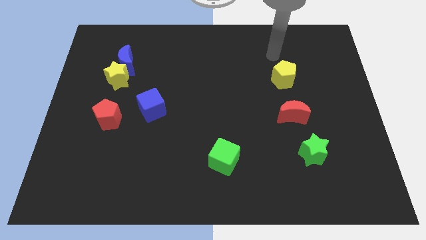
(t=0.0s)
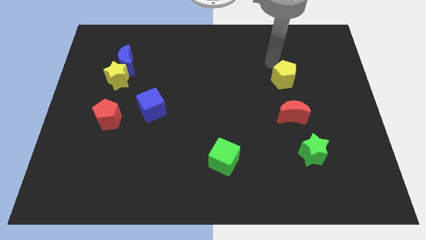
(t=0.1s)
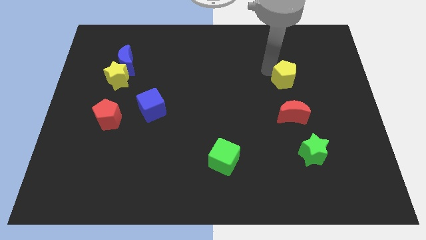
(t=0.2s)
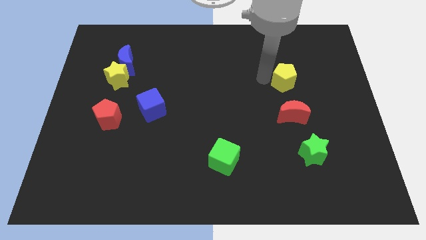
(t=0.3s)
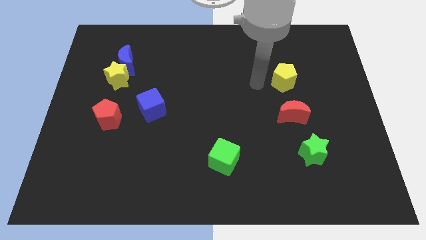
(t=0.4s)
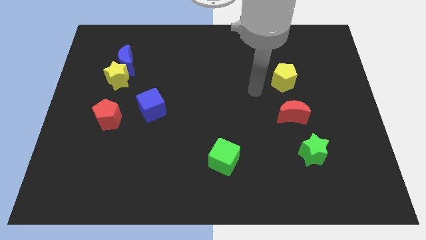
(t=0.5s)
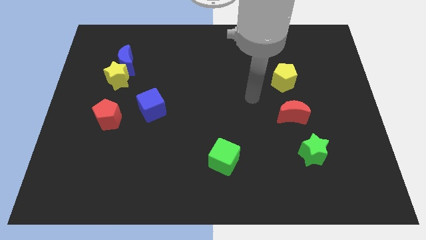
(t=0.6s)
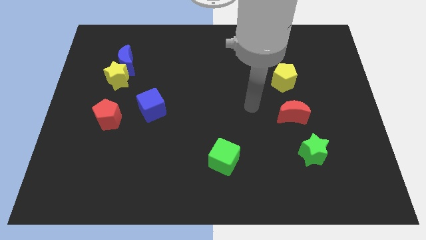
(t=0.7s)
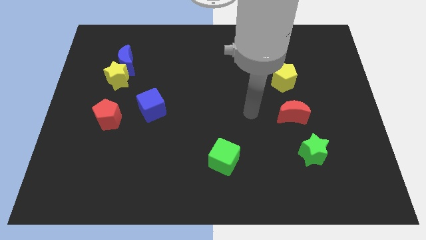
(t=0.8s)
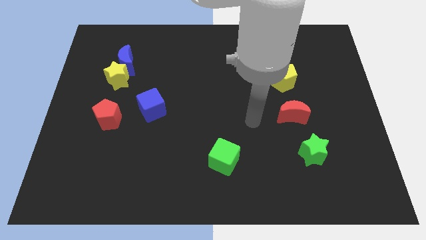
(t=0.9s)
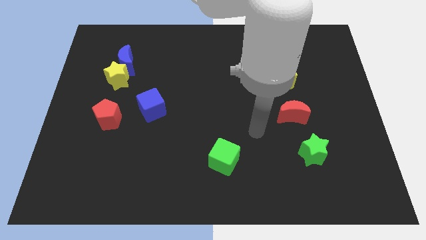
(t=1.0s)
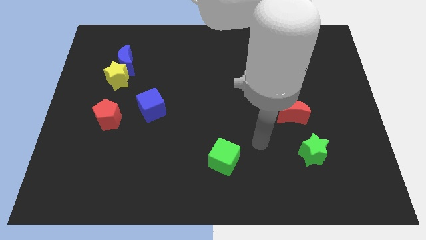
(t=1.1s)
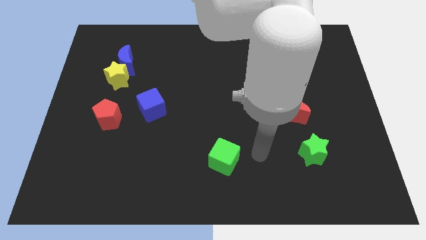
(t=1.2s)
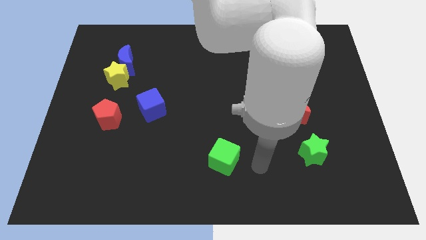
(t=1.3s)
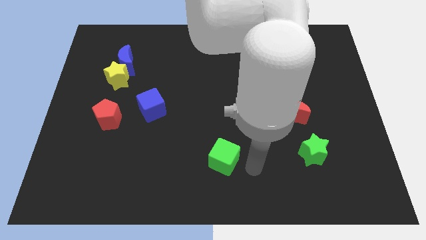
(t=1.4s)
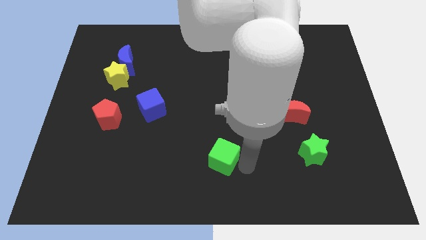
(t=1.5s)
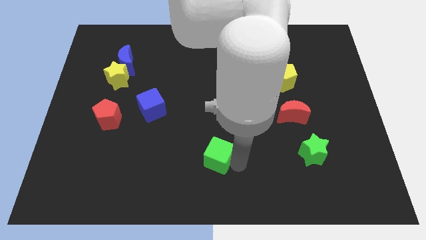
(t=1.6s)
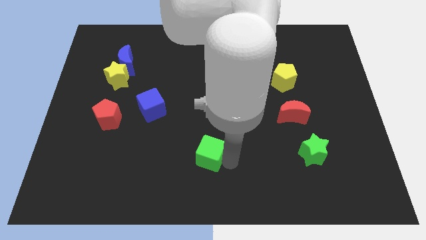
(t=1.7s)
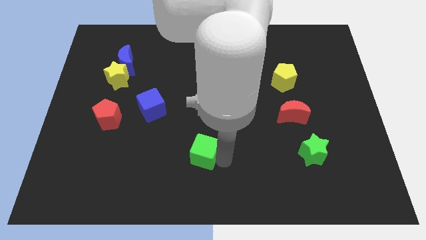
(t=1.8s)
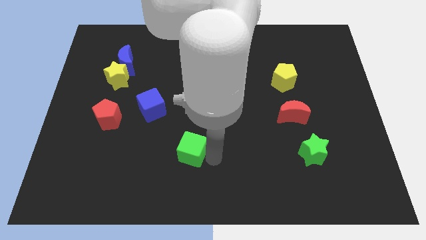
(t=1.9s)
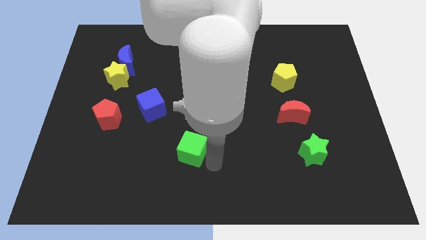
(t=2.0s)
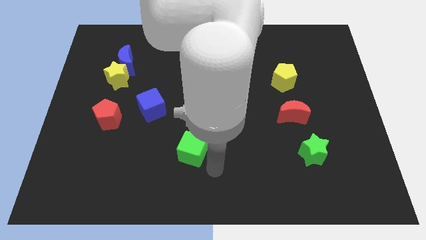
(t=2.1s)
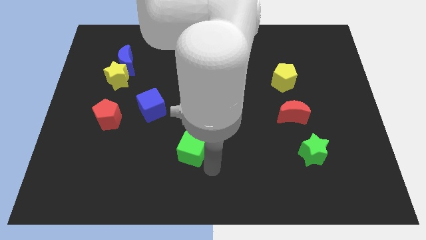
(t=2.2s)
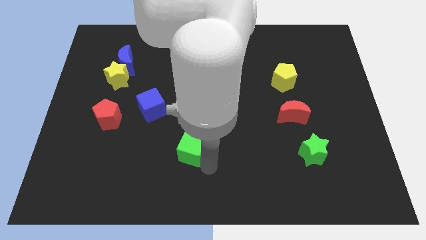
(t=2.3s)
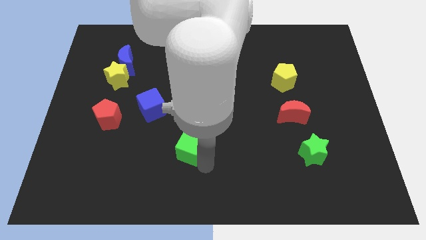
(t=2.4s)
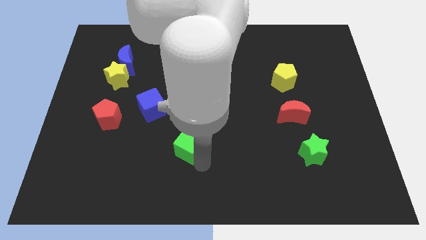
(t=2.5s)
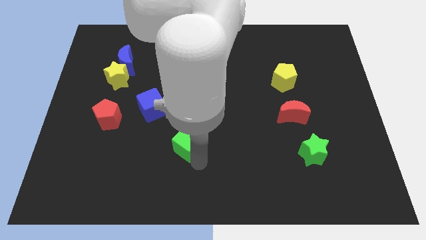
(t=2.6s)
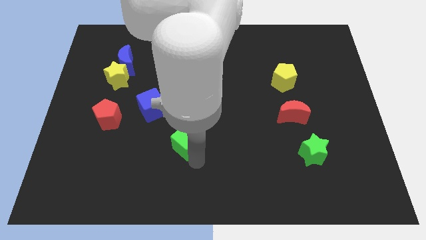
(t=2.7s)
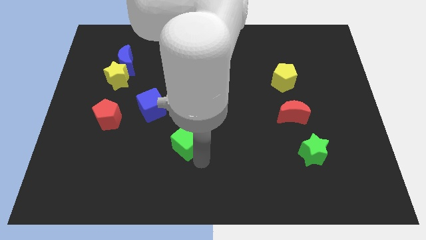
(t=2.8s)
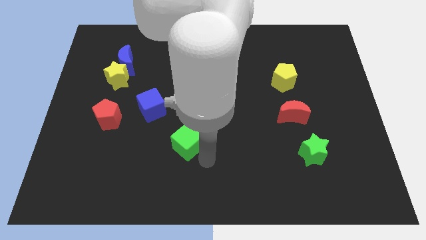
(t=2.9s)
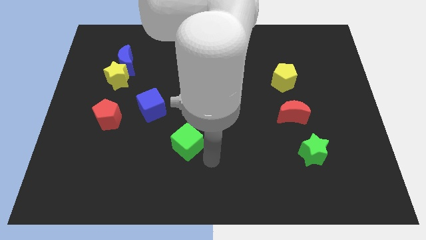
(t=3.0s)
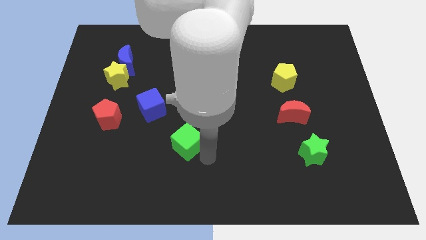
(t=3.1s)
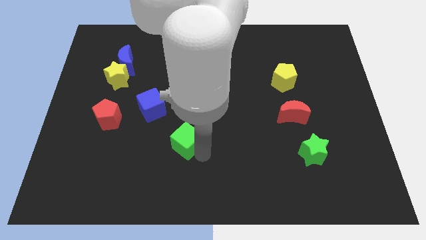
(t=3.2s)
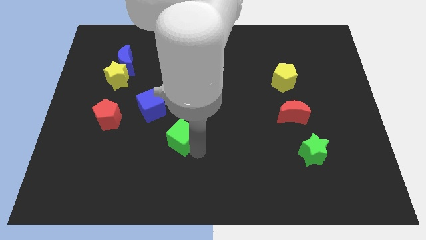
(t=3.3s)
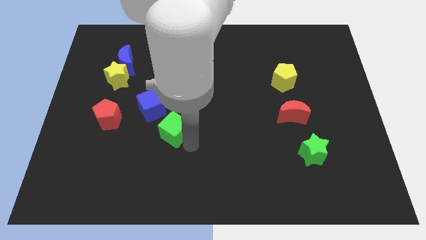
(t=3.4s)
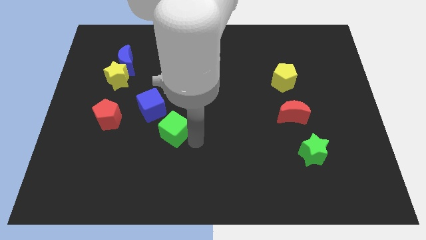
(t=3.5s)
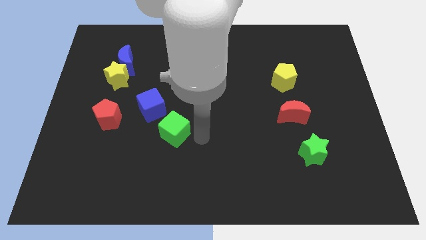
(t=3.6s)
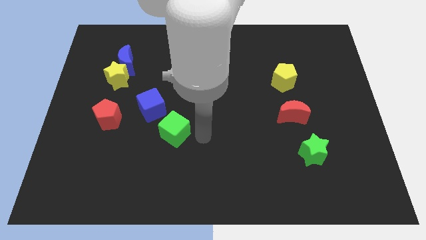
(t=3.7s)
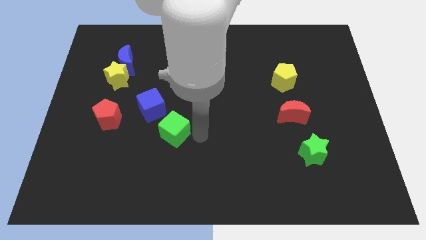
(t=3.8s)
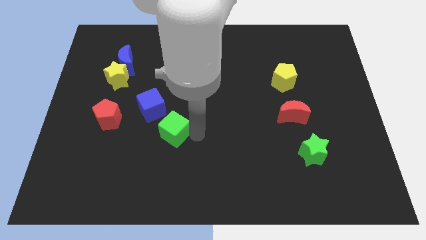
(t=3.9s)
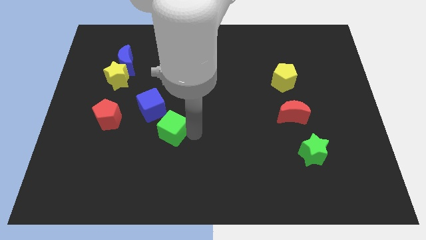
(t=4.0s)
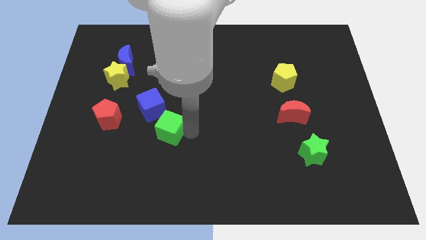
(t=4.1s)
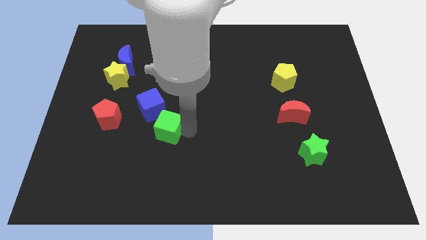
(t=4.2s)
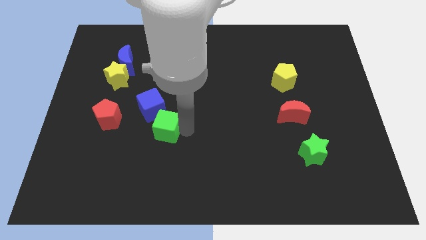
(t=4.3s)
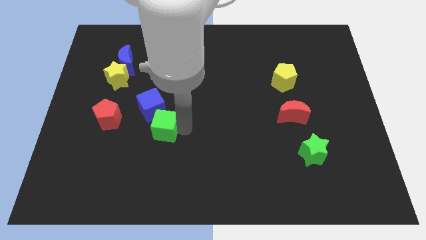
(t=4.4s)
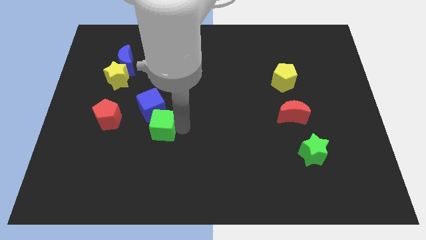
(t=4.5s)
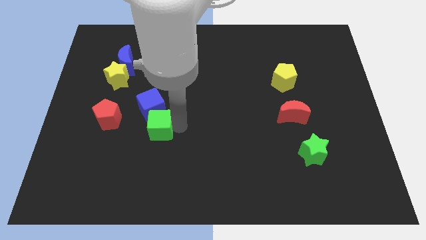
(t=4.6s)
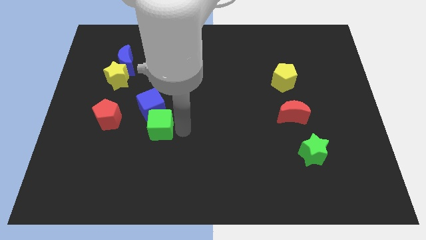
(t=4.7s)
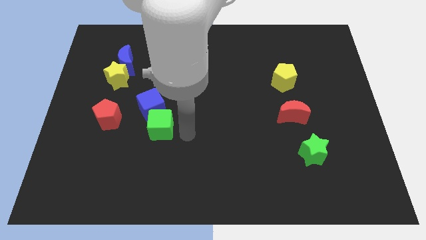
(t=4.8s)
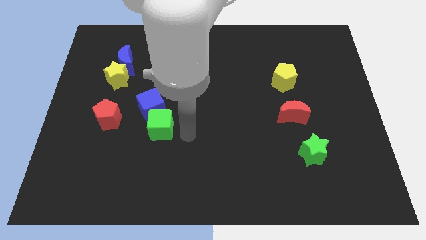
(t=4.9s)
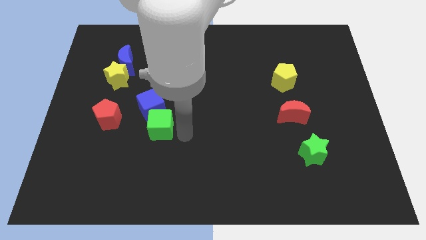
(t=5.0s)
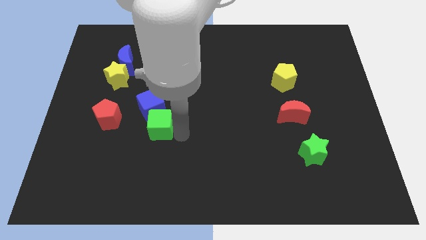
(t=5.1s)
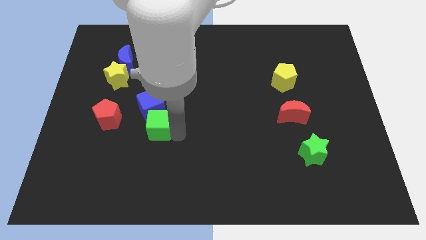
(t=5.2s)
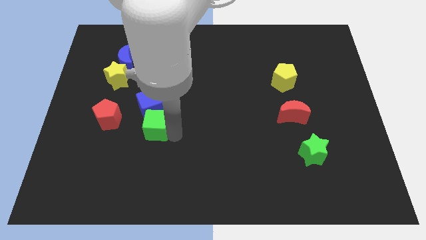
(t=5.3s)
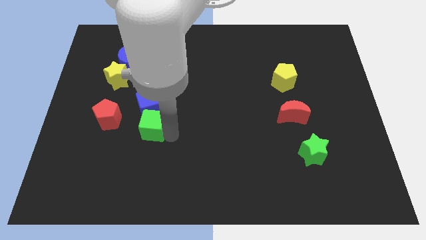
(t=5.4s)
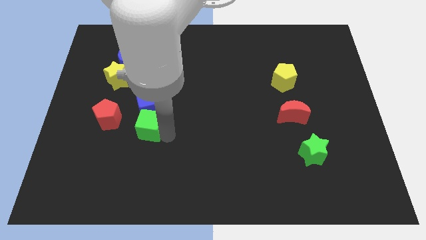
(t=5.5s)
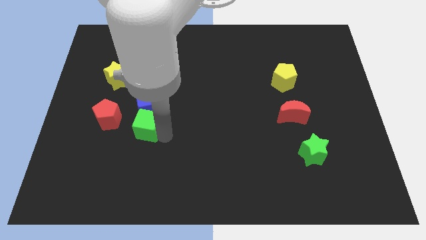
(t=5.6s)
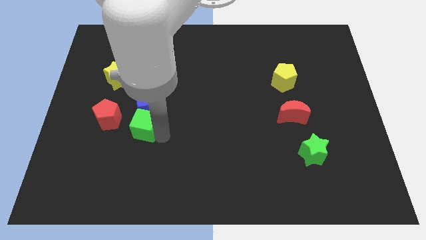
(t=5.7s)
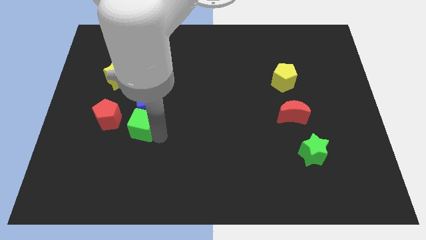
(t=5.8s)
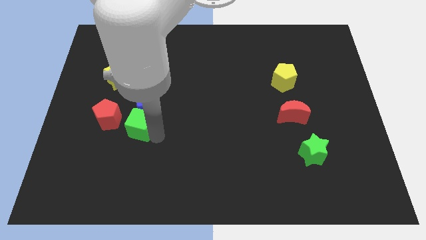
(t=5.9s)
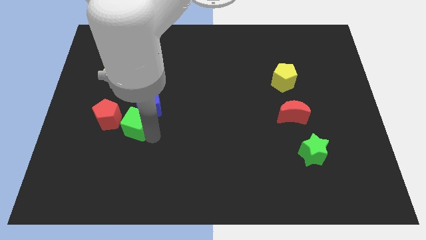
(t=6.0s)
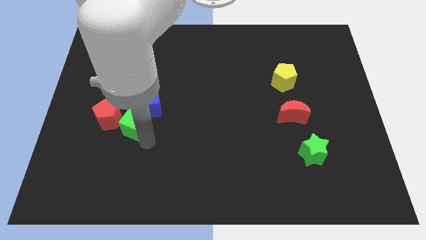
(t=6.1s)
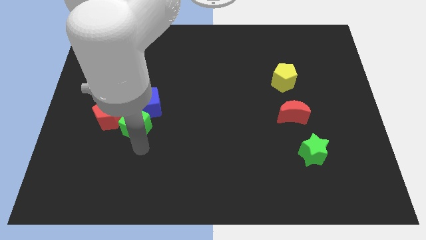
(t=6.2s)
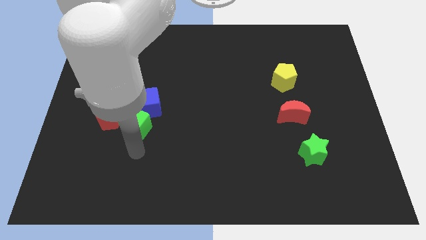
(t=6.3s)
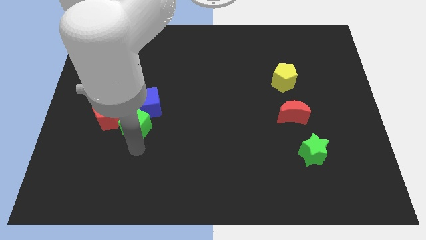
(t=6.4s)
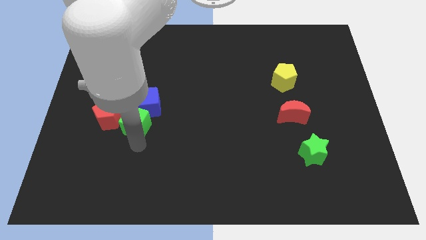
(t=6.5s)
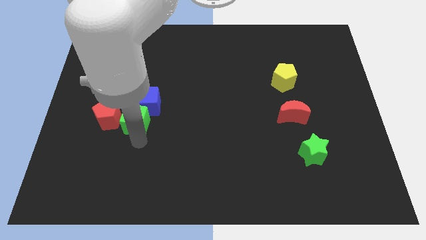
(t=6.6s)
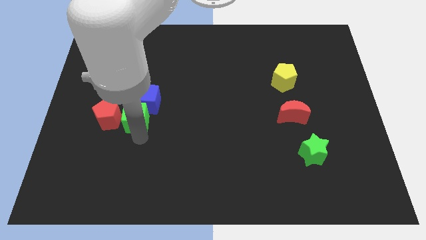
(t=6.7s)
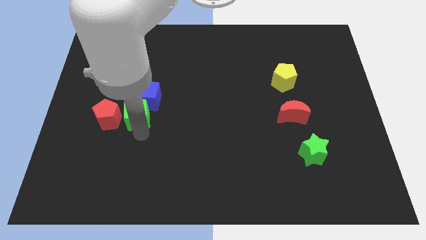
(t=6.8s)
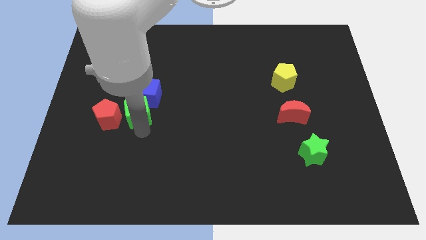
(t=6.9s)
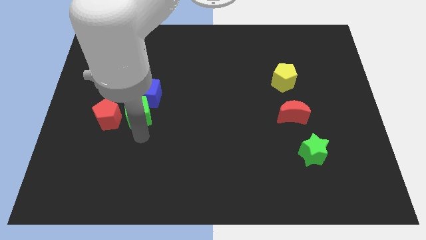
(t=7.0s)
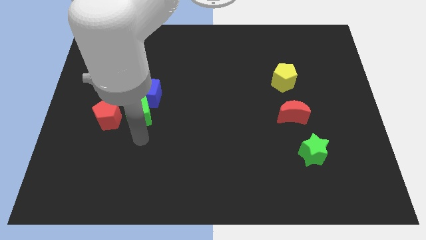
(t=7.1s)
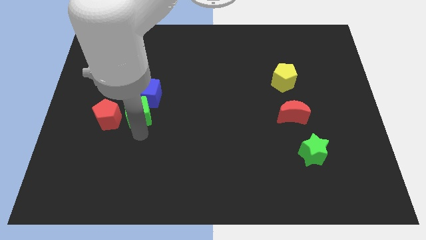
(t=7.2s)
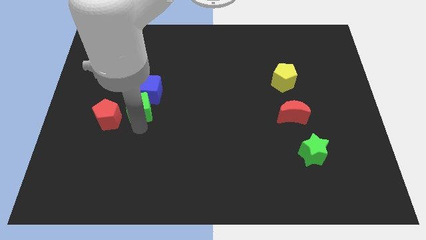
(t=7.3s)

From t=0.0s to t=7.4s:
move the green cube to the bottom right of the yellow star

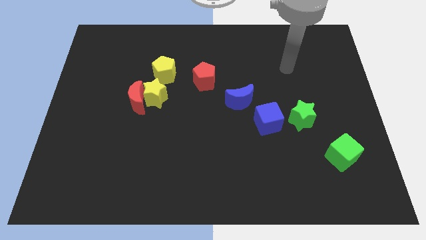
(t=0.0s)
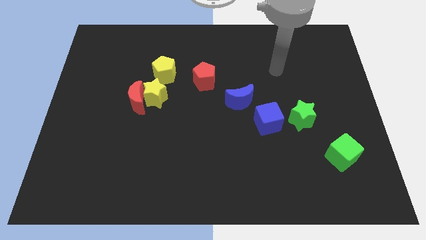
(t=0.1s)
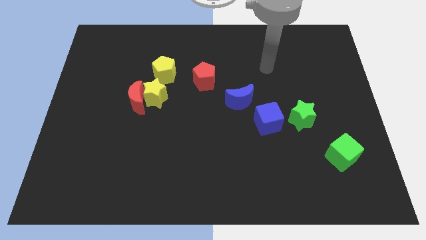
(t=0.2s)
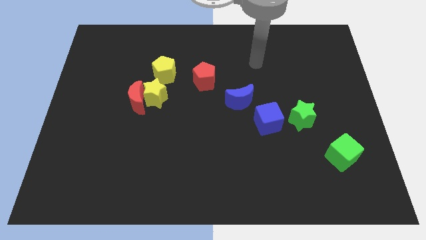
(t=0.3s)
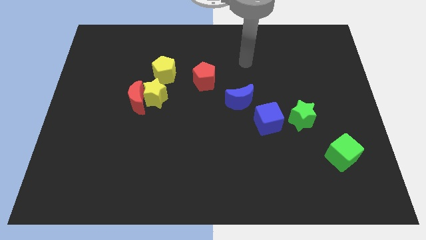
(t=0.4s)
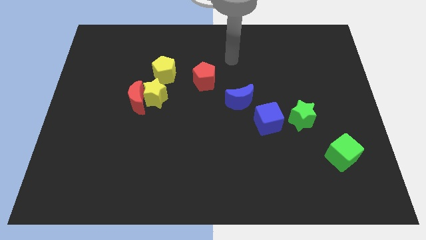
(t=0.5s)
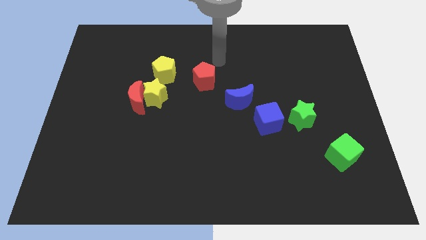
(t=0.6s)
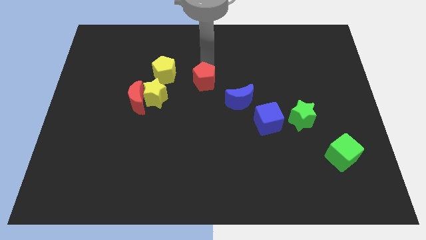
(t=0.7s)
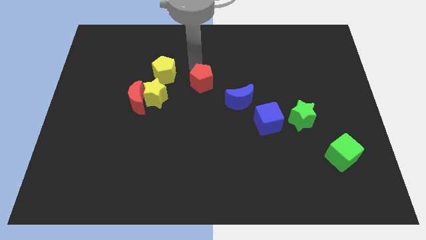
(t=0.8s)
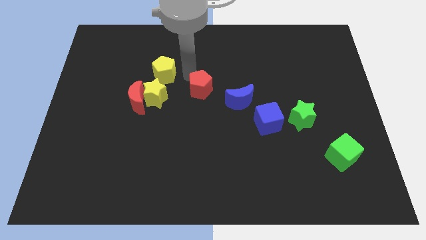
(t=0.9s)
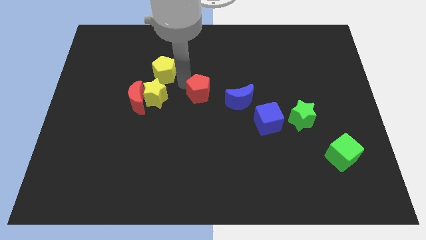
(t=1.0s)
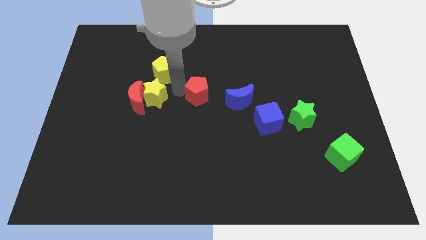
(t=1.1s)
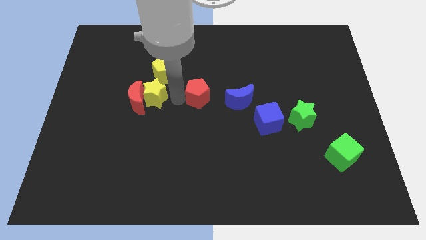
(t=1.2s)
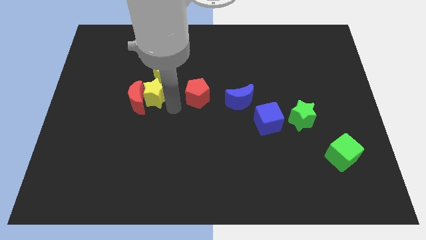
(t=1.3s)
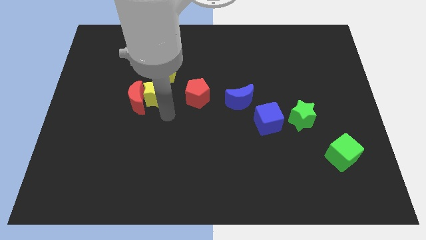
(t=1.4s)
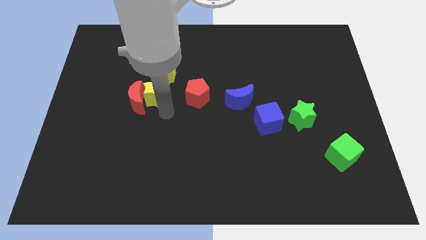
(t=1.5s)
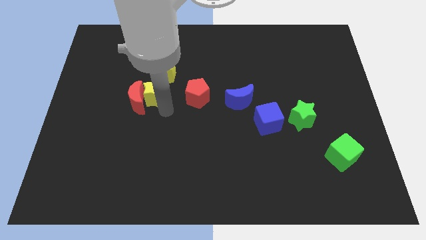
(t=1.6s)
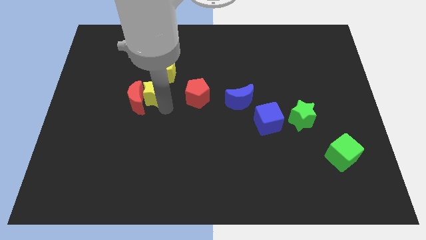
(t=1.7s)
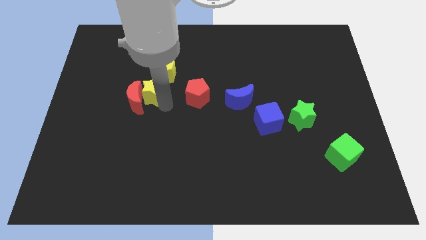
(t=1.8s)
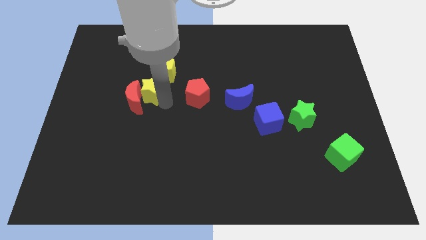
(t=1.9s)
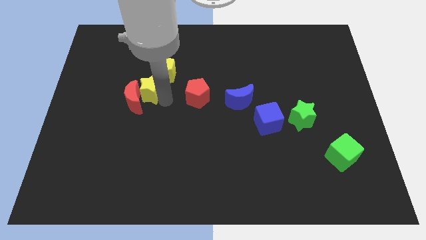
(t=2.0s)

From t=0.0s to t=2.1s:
move the yellow star to the top of the red moon
